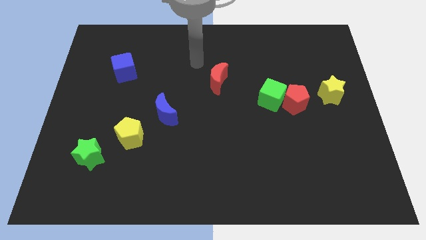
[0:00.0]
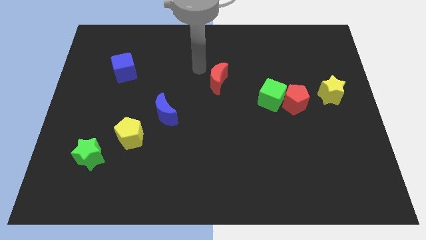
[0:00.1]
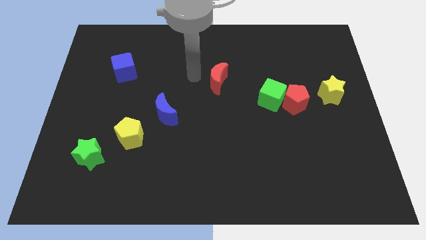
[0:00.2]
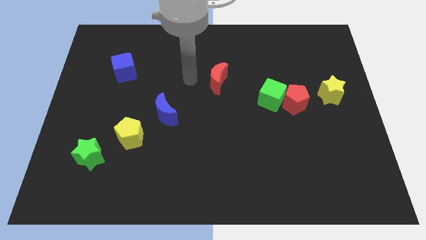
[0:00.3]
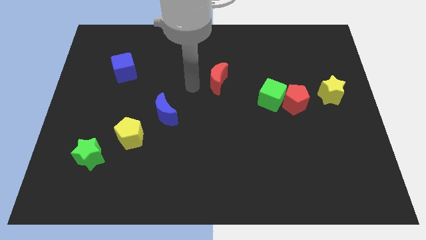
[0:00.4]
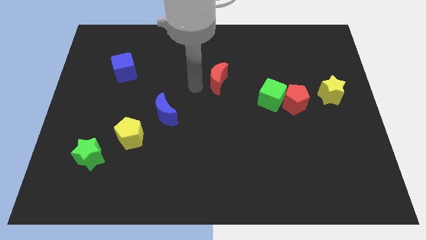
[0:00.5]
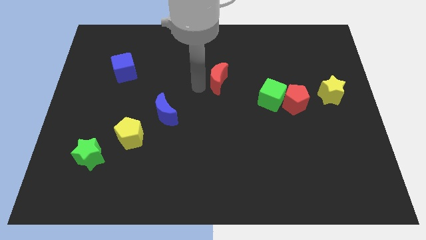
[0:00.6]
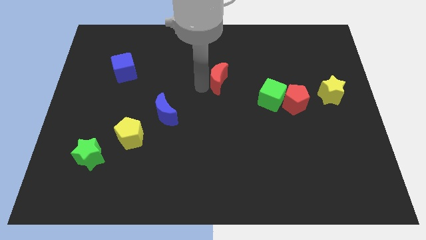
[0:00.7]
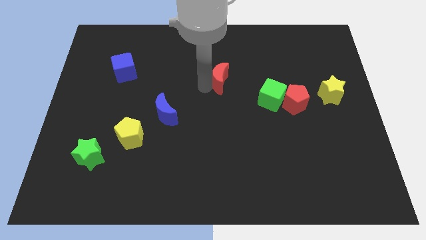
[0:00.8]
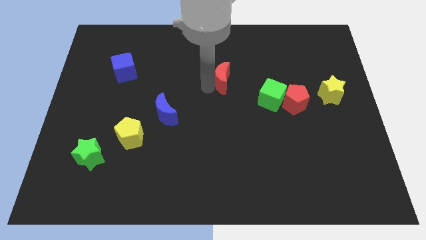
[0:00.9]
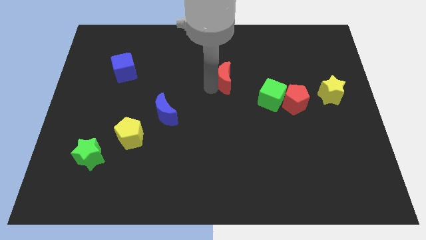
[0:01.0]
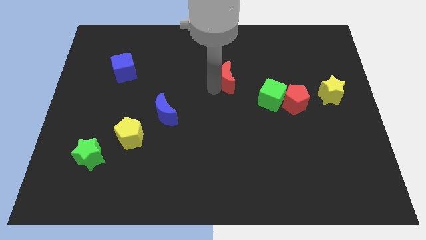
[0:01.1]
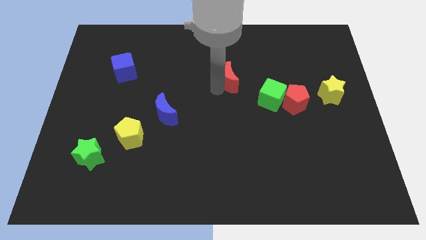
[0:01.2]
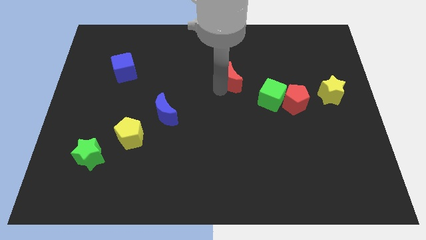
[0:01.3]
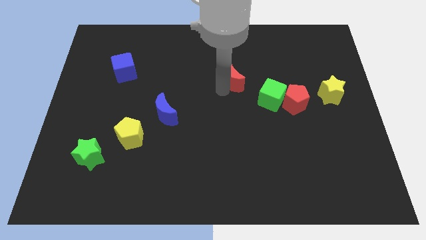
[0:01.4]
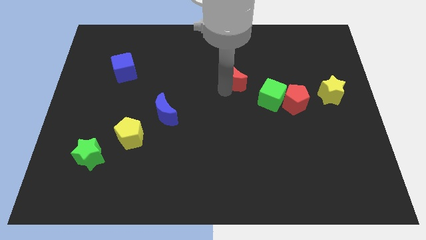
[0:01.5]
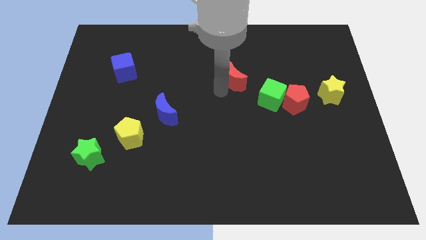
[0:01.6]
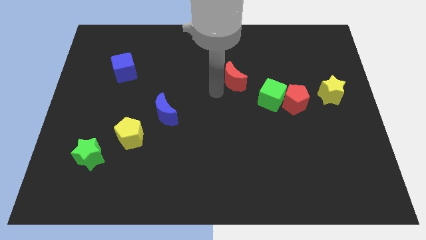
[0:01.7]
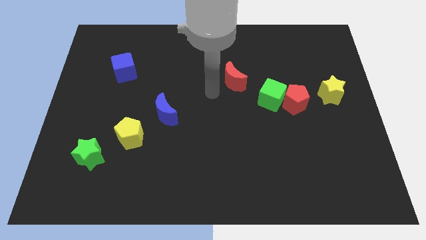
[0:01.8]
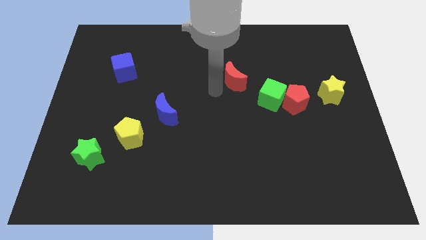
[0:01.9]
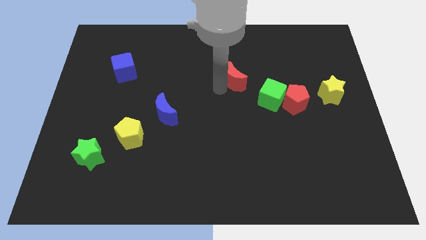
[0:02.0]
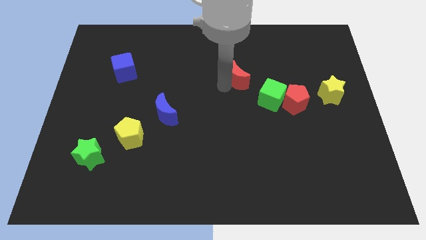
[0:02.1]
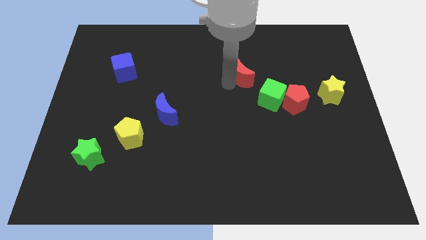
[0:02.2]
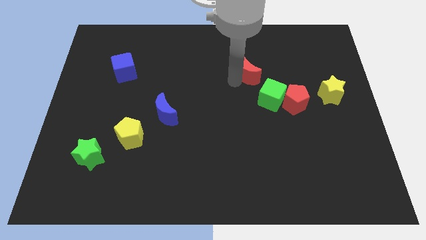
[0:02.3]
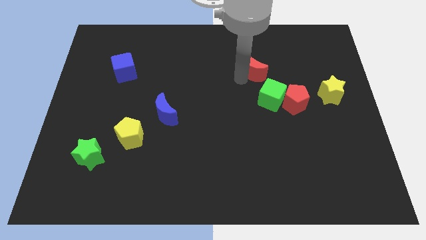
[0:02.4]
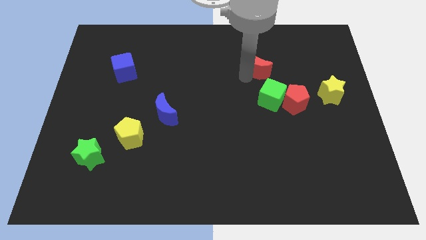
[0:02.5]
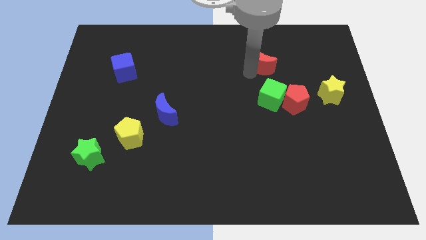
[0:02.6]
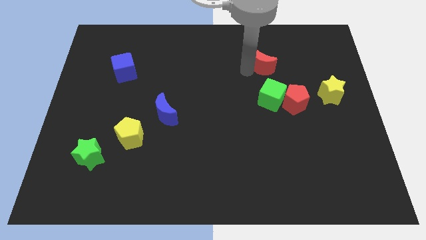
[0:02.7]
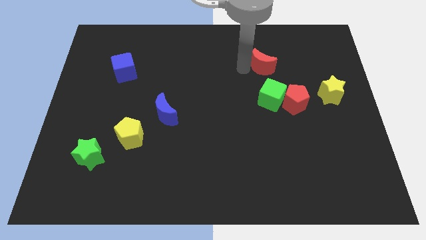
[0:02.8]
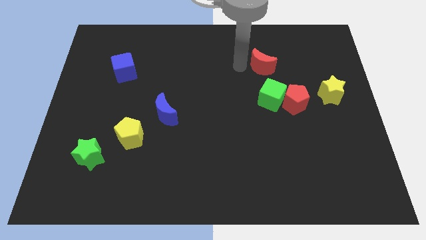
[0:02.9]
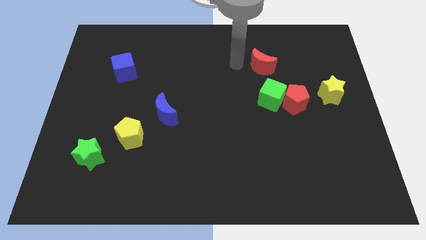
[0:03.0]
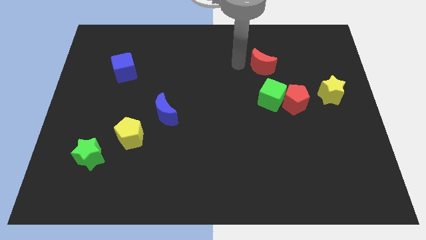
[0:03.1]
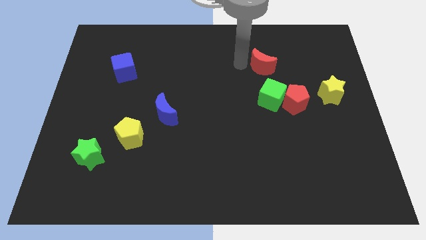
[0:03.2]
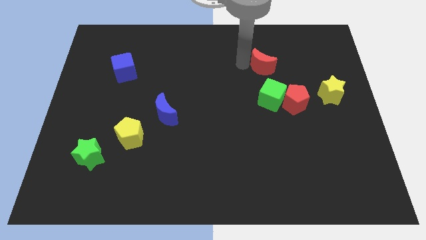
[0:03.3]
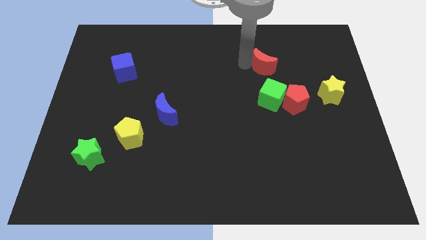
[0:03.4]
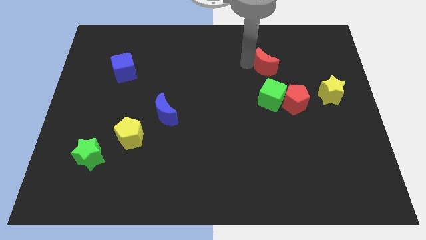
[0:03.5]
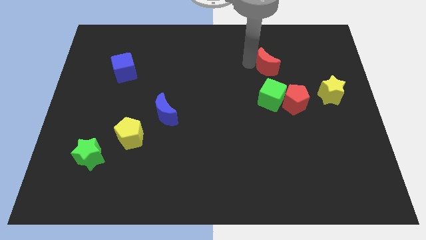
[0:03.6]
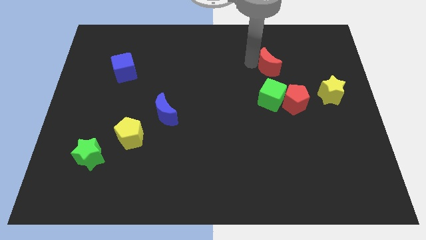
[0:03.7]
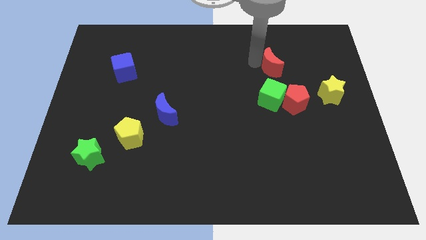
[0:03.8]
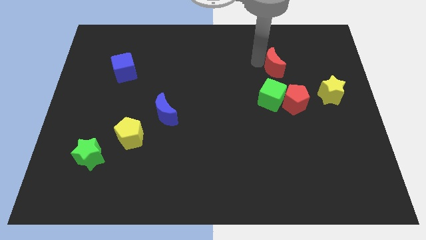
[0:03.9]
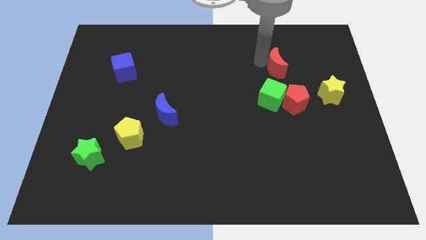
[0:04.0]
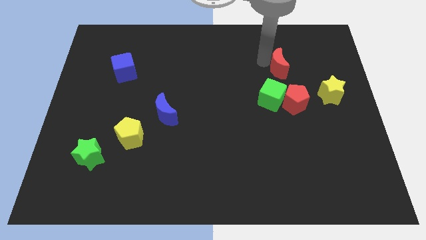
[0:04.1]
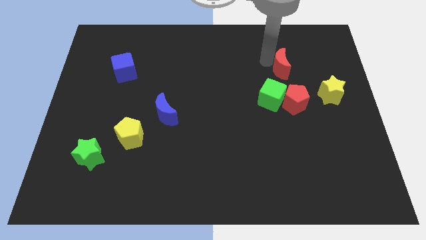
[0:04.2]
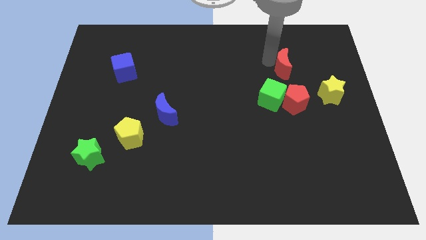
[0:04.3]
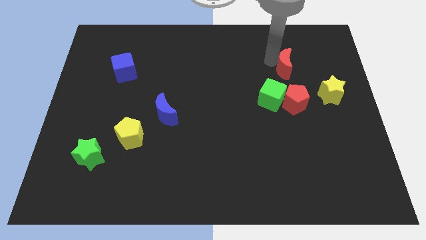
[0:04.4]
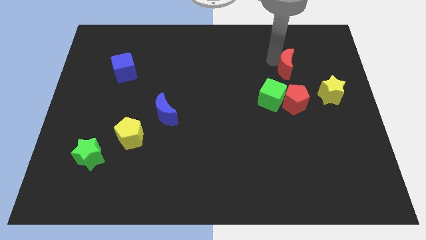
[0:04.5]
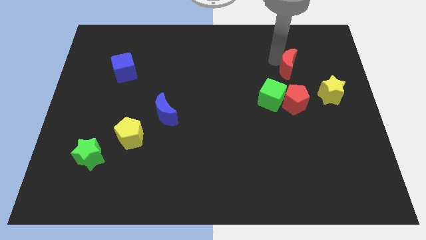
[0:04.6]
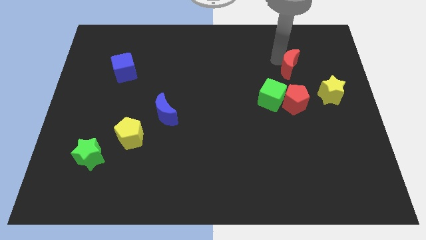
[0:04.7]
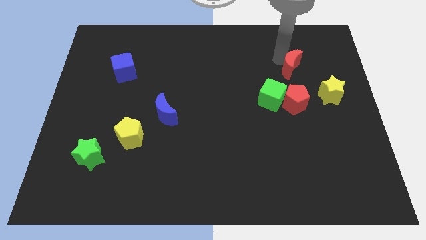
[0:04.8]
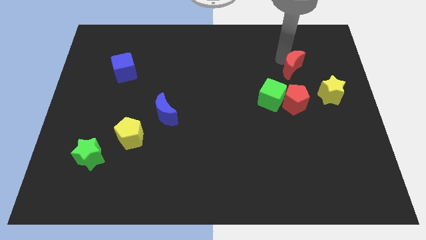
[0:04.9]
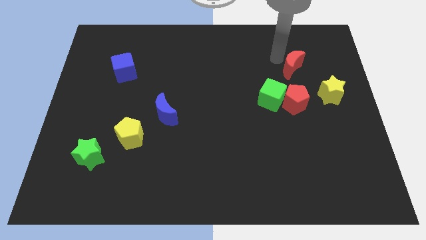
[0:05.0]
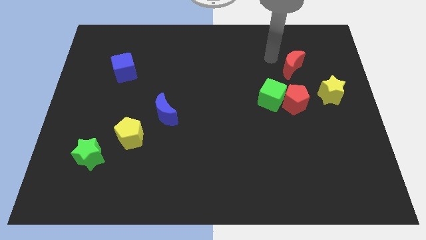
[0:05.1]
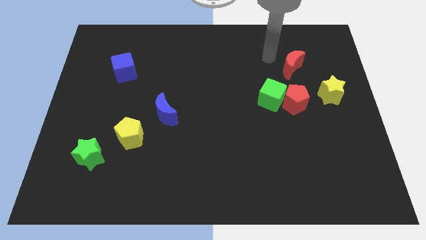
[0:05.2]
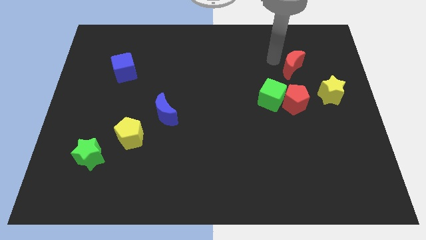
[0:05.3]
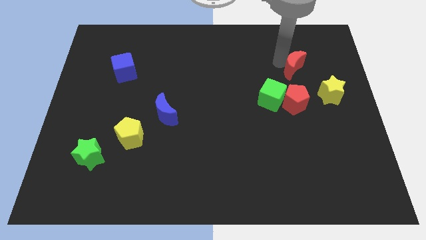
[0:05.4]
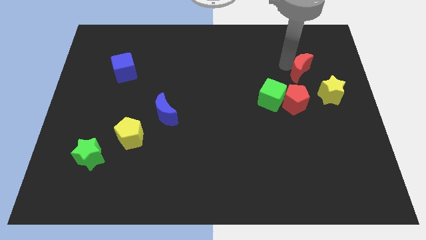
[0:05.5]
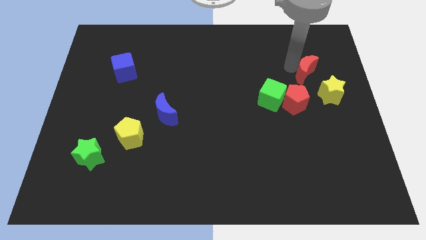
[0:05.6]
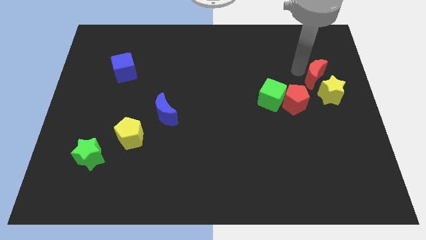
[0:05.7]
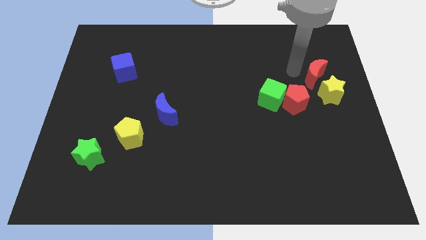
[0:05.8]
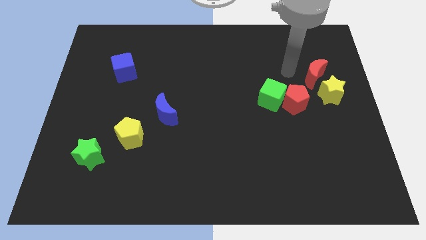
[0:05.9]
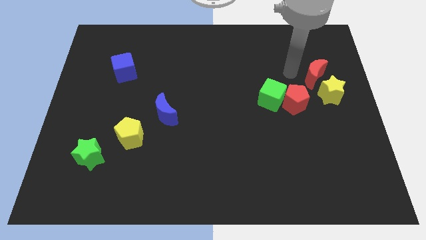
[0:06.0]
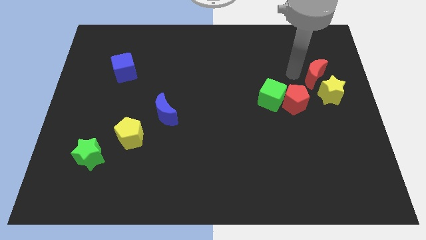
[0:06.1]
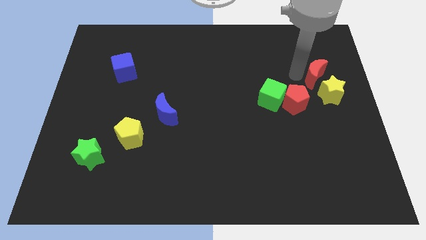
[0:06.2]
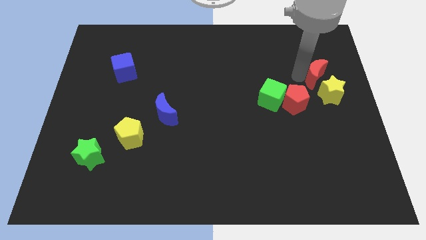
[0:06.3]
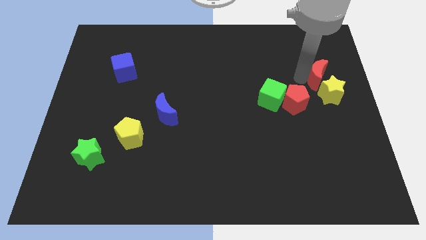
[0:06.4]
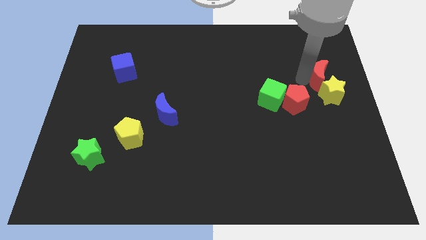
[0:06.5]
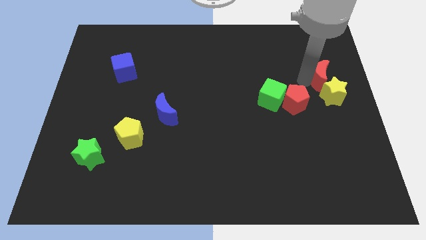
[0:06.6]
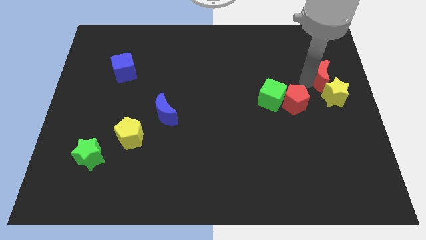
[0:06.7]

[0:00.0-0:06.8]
put the red moon to the right side of the board
